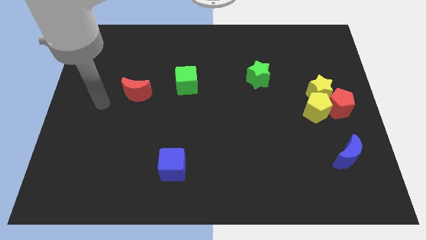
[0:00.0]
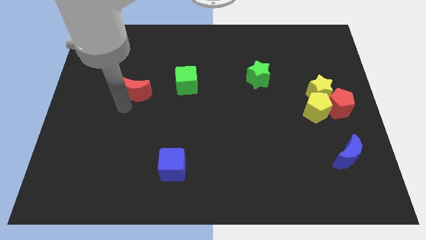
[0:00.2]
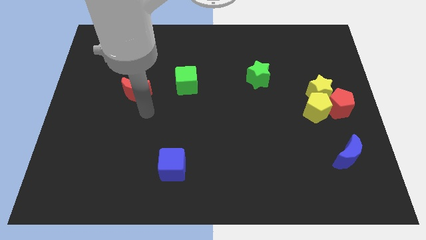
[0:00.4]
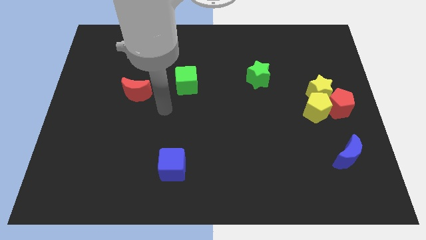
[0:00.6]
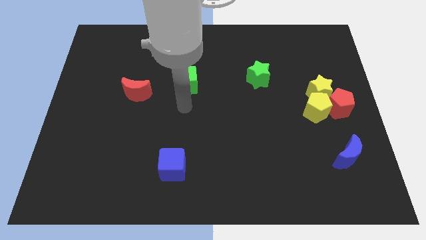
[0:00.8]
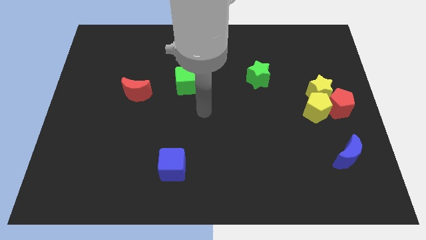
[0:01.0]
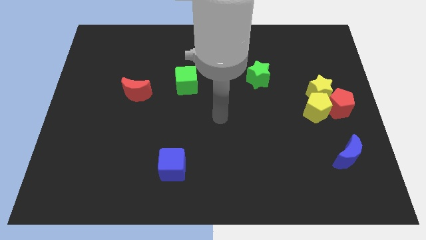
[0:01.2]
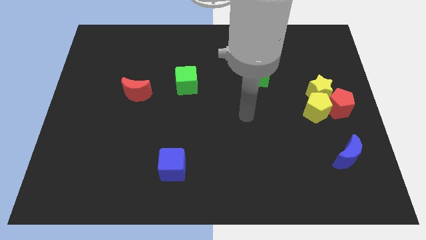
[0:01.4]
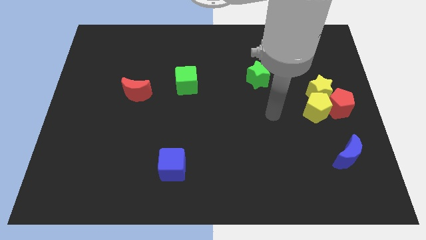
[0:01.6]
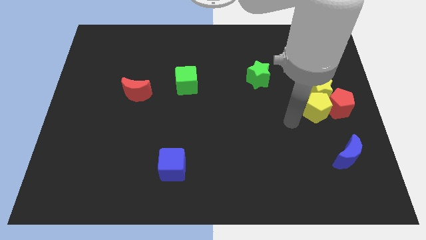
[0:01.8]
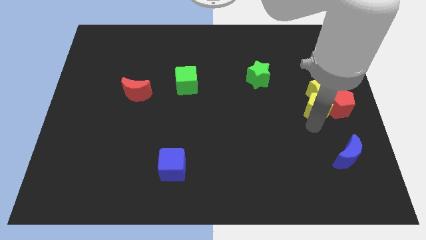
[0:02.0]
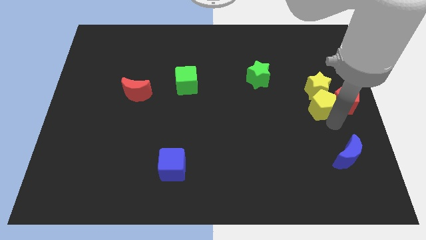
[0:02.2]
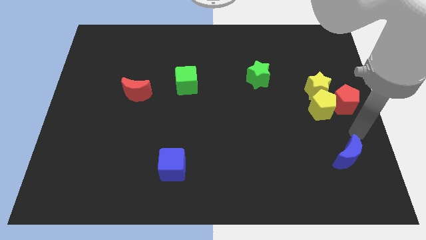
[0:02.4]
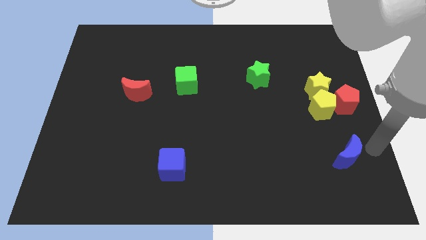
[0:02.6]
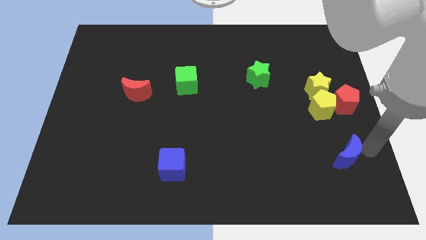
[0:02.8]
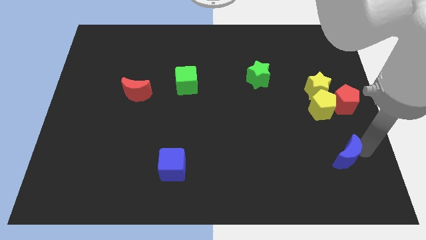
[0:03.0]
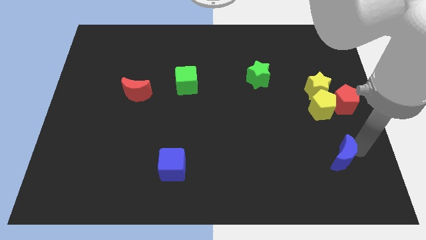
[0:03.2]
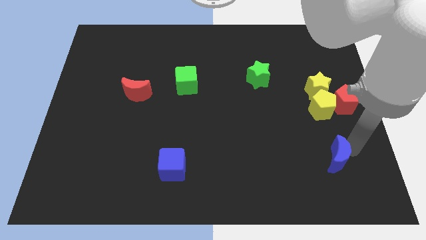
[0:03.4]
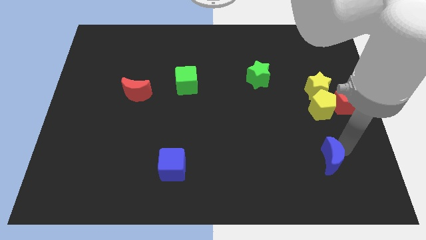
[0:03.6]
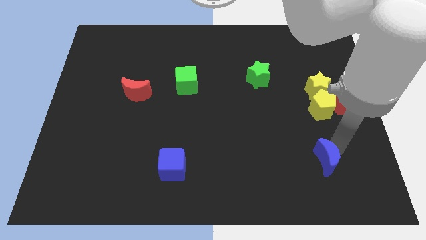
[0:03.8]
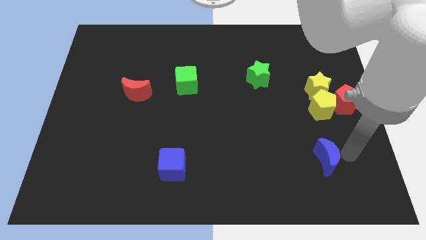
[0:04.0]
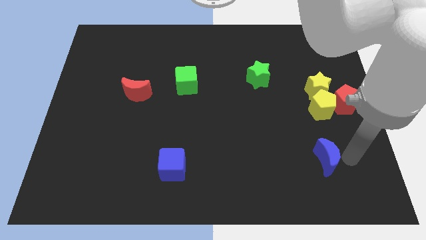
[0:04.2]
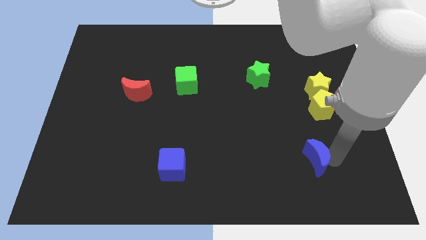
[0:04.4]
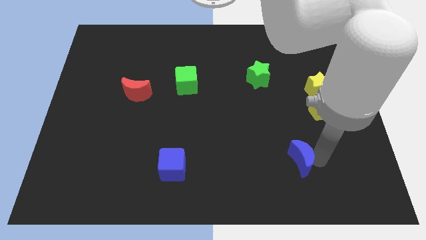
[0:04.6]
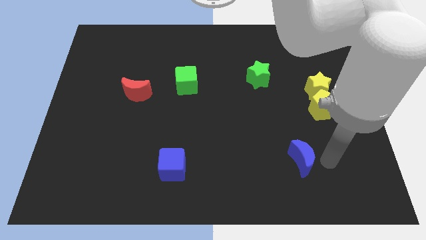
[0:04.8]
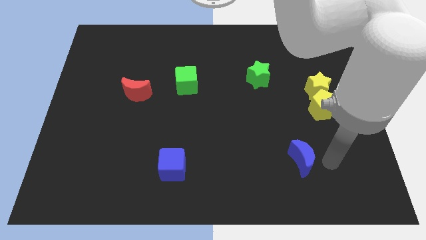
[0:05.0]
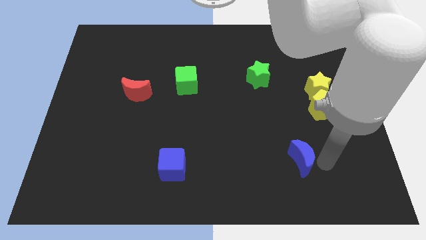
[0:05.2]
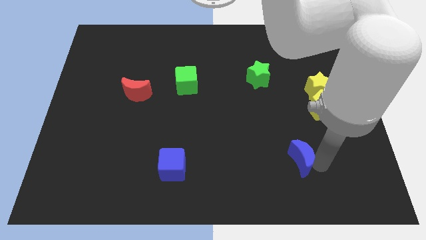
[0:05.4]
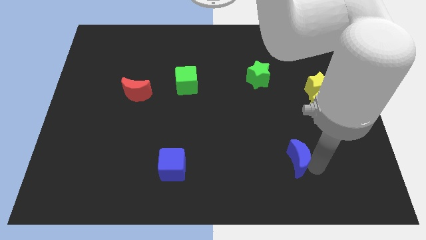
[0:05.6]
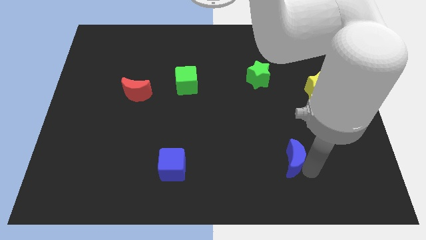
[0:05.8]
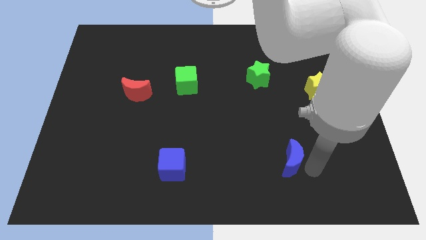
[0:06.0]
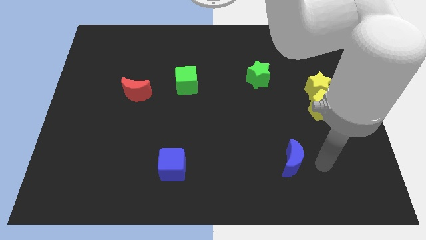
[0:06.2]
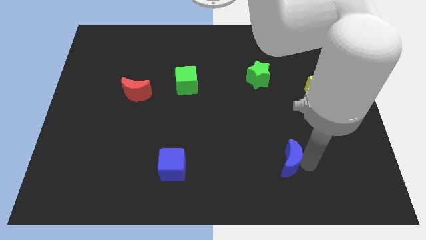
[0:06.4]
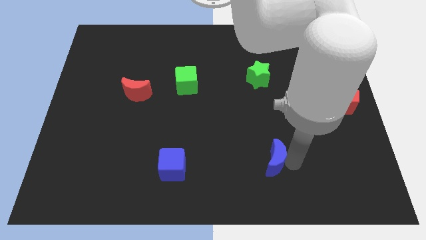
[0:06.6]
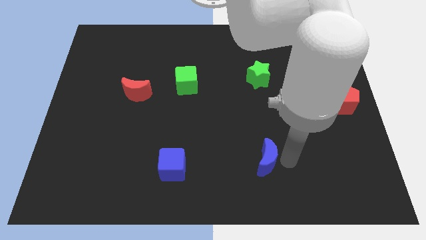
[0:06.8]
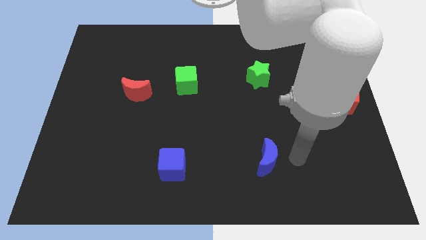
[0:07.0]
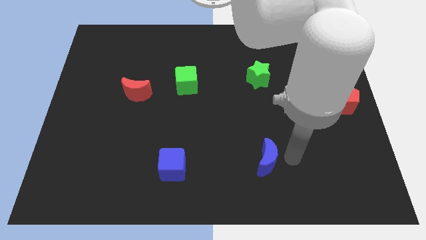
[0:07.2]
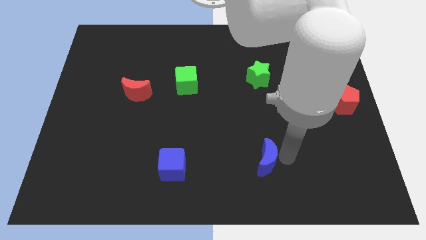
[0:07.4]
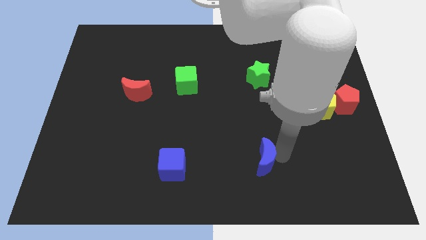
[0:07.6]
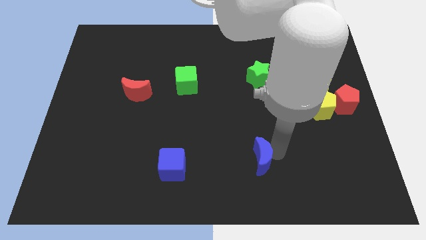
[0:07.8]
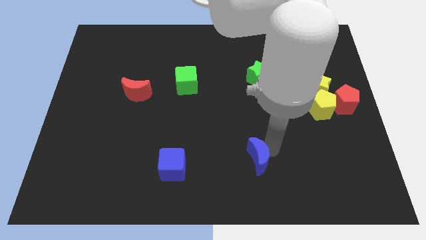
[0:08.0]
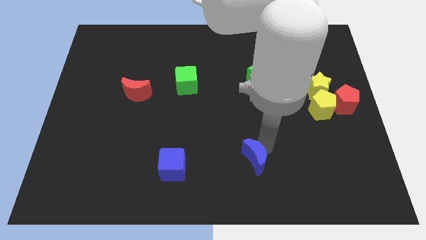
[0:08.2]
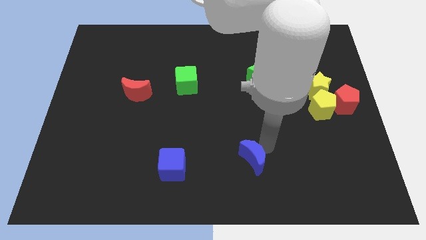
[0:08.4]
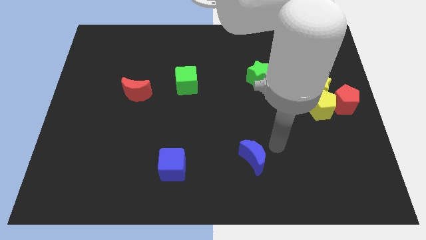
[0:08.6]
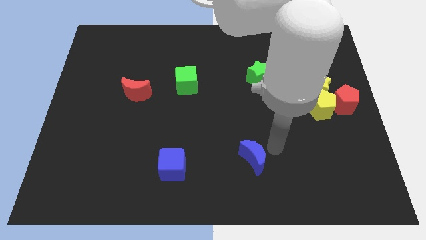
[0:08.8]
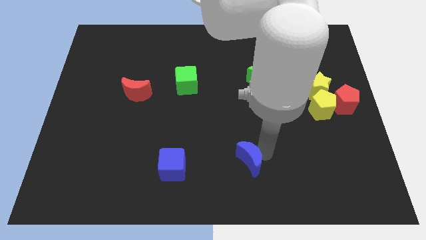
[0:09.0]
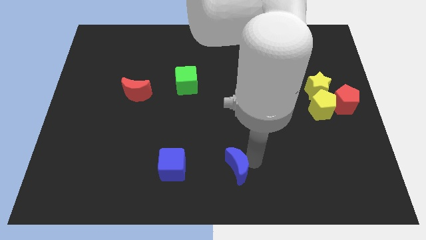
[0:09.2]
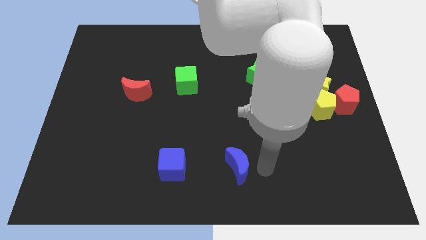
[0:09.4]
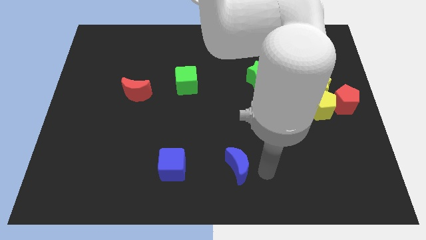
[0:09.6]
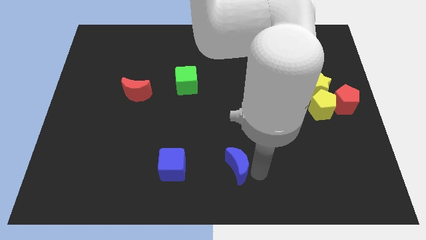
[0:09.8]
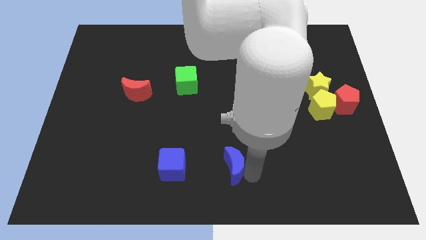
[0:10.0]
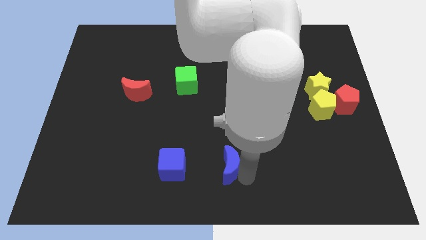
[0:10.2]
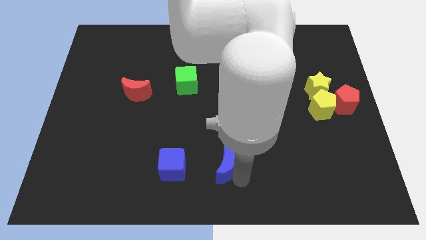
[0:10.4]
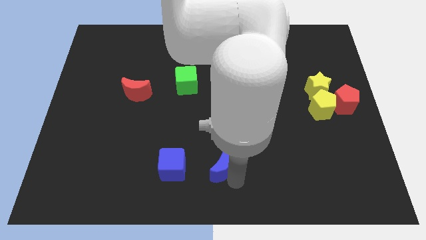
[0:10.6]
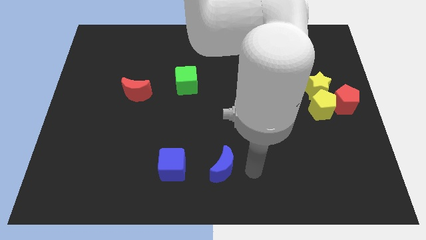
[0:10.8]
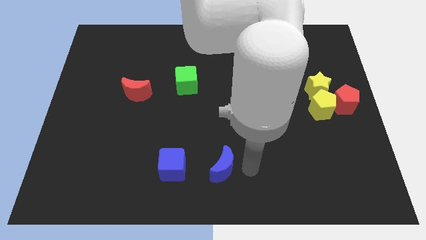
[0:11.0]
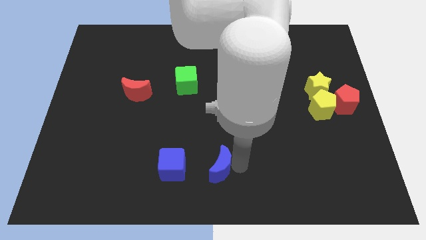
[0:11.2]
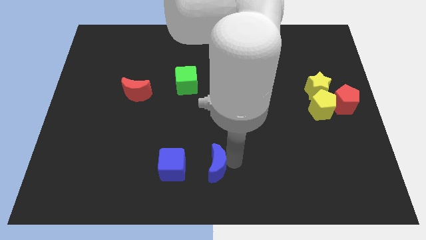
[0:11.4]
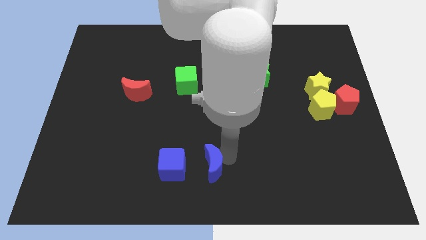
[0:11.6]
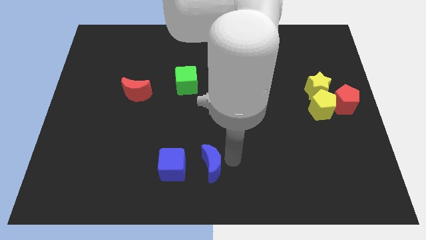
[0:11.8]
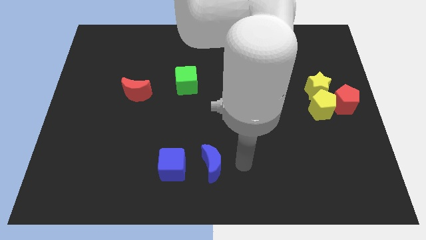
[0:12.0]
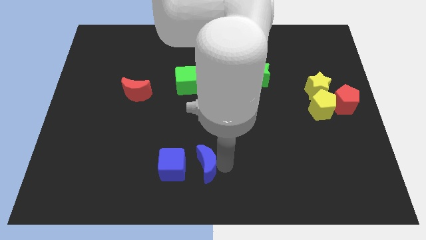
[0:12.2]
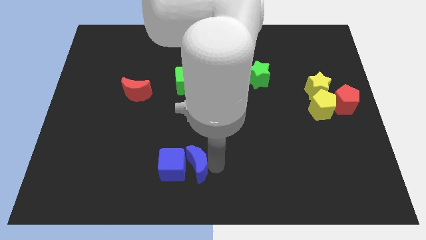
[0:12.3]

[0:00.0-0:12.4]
put the blue moon next to the blue cube

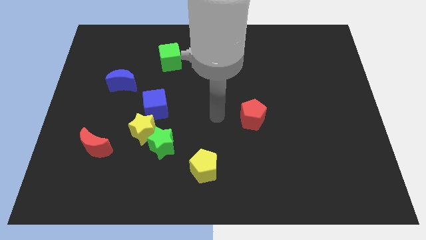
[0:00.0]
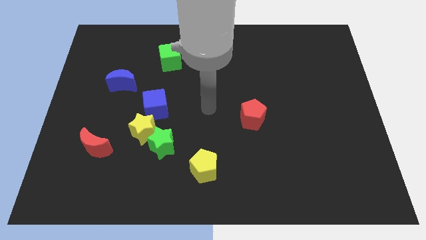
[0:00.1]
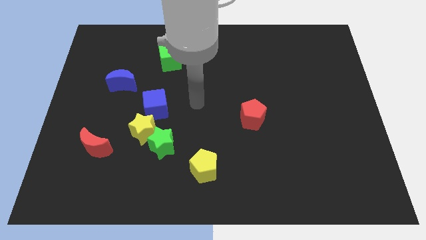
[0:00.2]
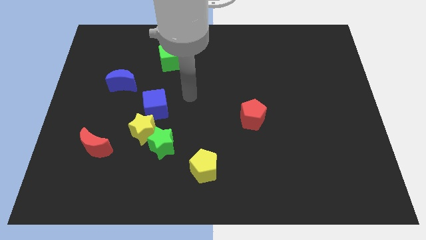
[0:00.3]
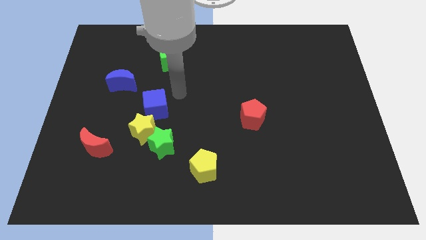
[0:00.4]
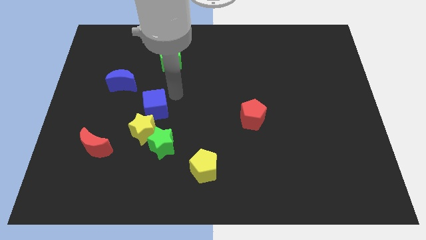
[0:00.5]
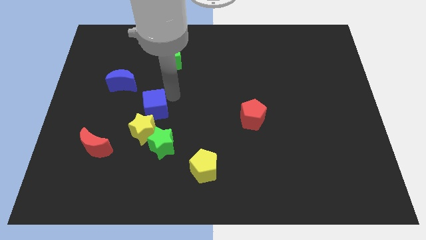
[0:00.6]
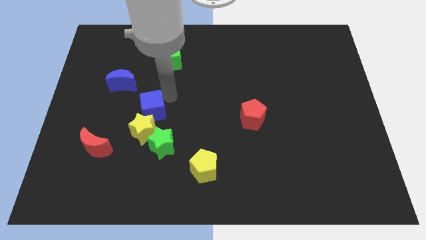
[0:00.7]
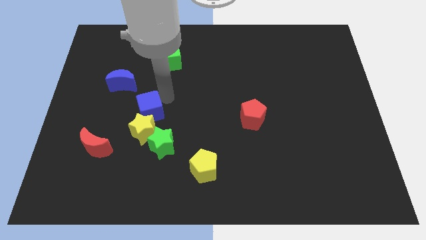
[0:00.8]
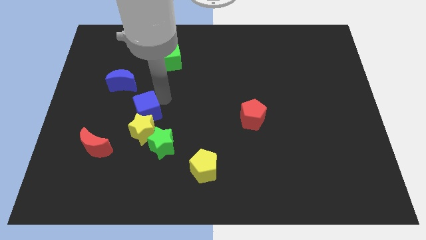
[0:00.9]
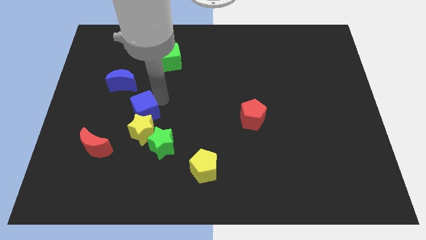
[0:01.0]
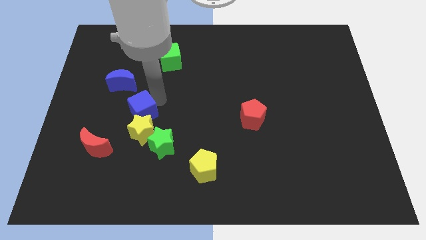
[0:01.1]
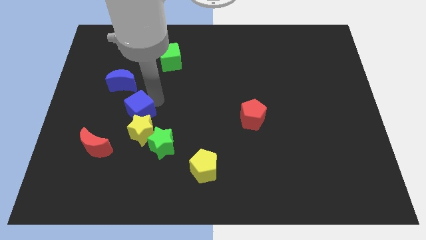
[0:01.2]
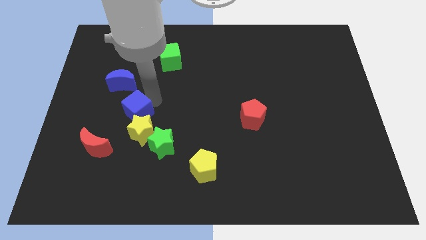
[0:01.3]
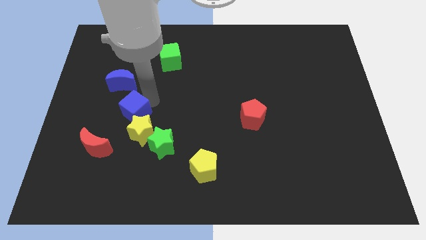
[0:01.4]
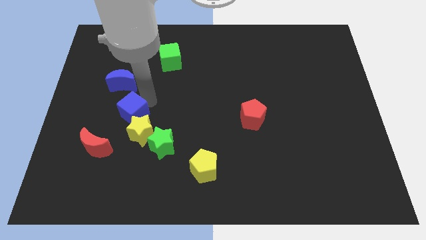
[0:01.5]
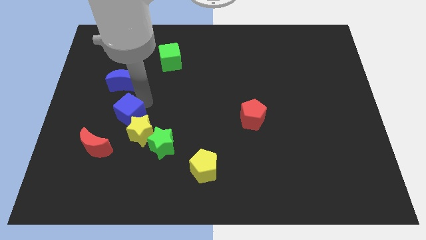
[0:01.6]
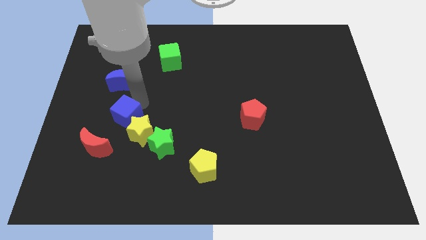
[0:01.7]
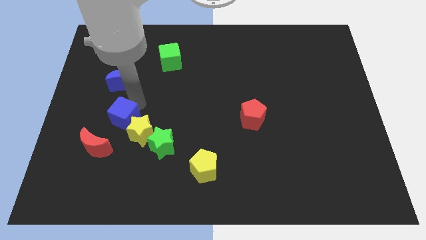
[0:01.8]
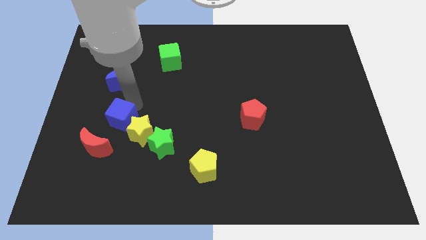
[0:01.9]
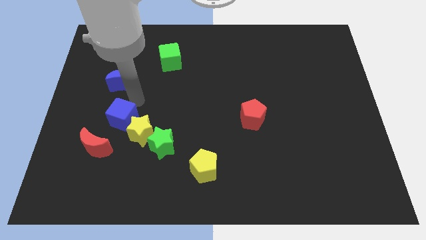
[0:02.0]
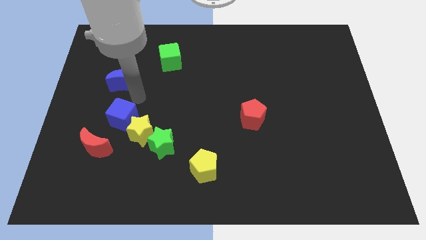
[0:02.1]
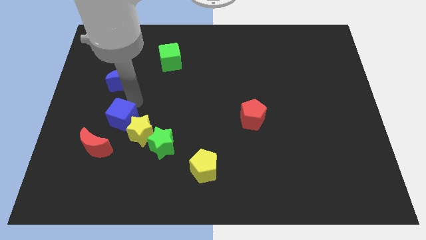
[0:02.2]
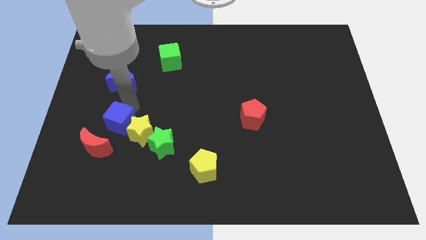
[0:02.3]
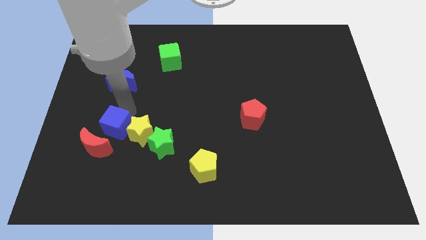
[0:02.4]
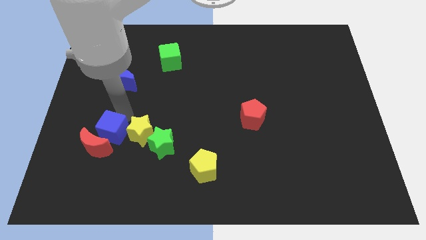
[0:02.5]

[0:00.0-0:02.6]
push the blue cube to the red moon
